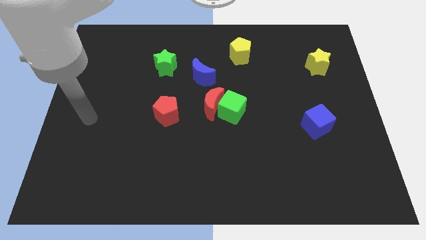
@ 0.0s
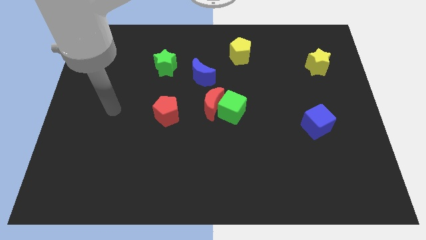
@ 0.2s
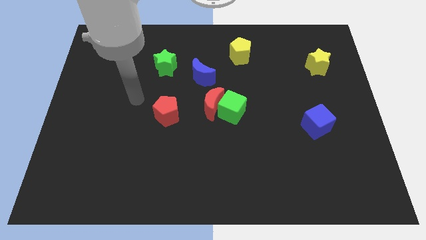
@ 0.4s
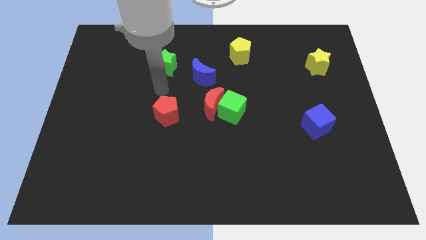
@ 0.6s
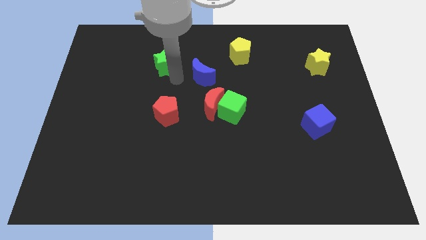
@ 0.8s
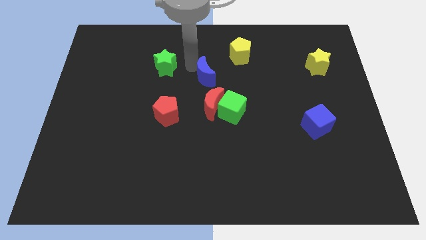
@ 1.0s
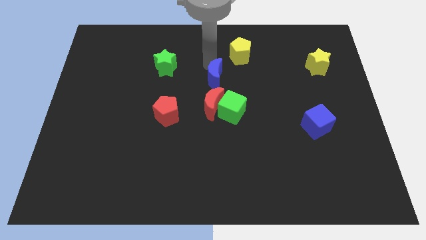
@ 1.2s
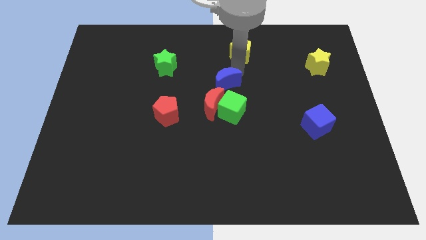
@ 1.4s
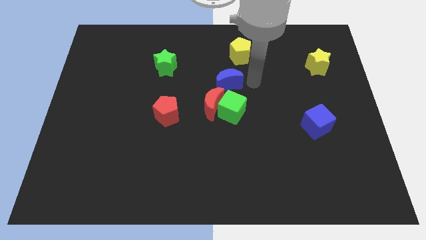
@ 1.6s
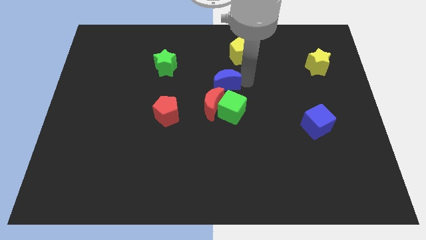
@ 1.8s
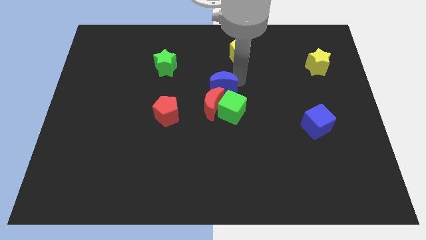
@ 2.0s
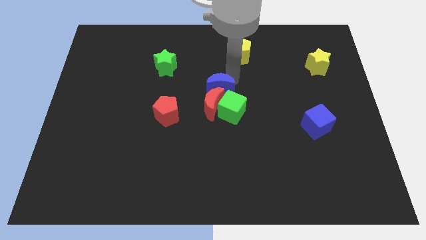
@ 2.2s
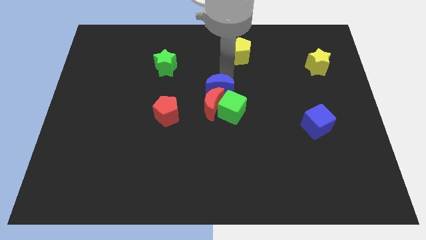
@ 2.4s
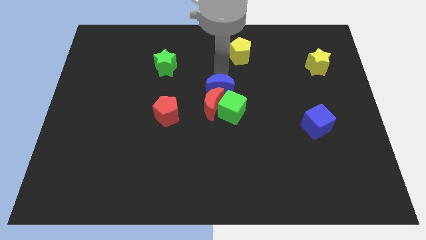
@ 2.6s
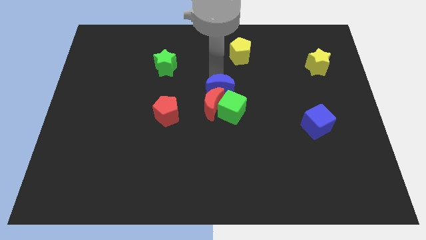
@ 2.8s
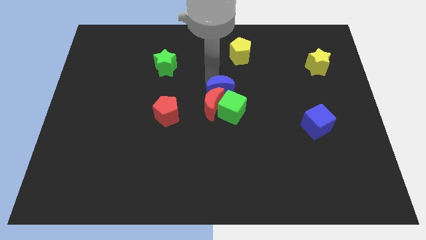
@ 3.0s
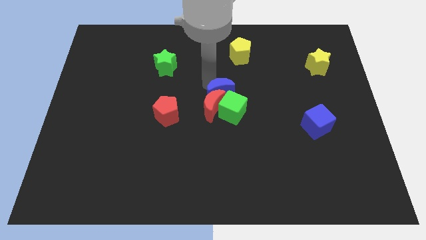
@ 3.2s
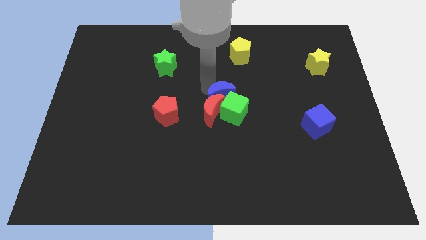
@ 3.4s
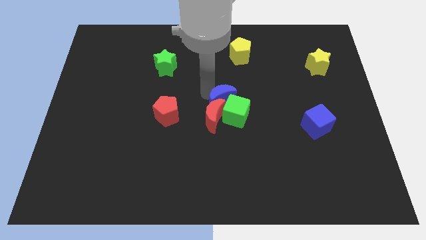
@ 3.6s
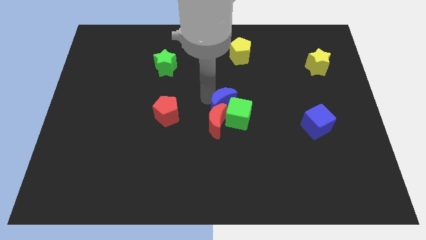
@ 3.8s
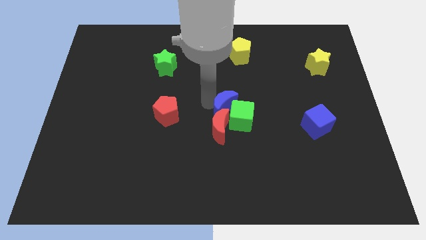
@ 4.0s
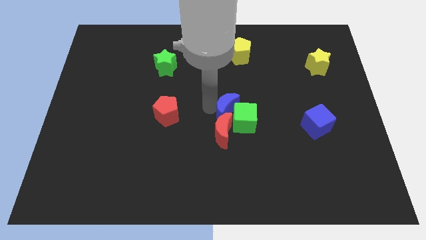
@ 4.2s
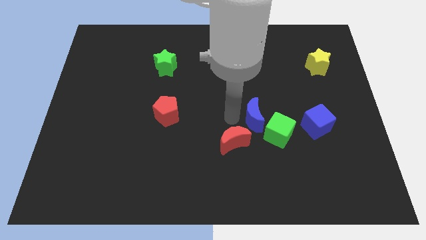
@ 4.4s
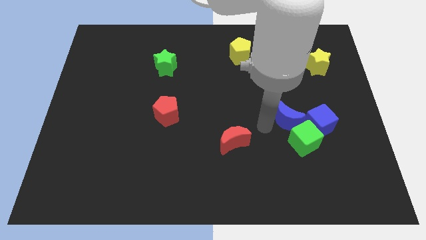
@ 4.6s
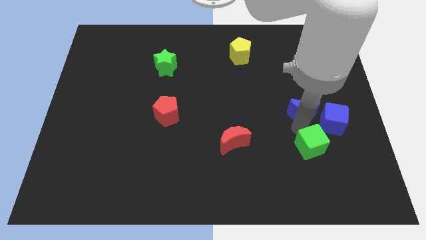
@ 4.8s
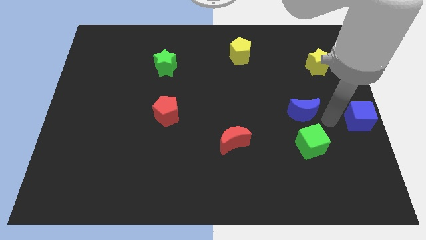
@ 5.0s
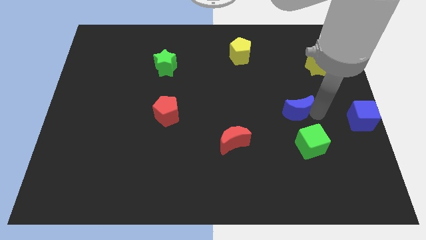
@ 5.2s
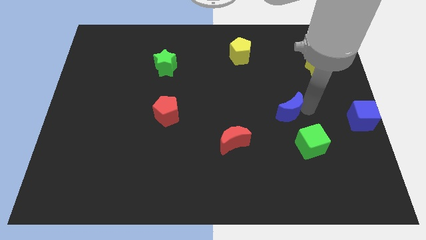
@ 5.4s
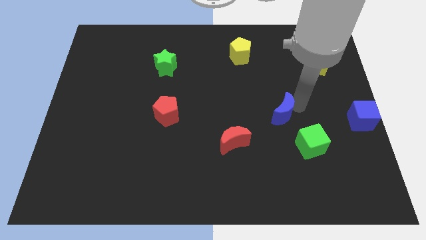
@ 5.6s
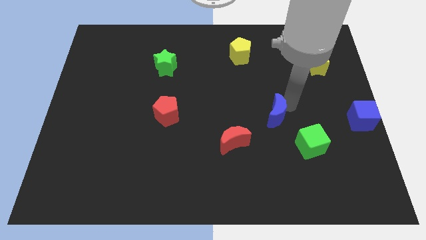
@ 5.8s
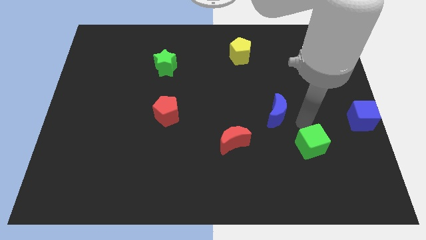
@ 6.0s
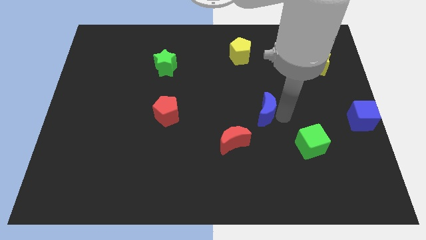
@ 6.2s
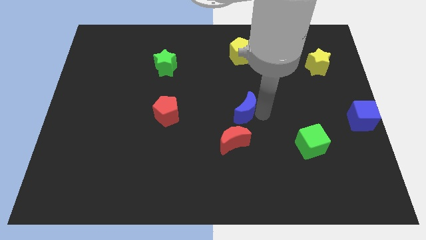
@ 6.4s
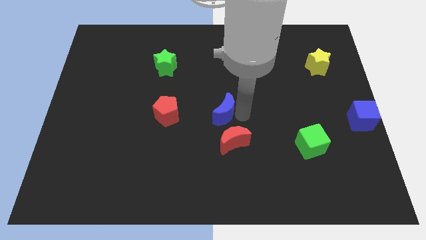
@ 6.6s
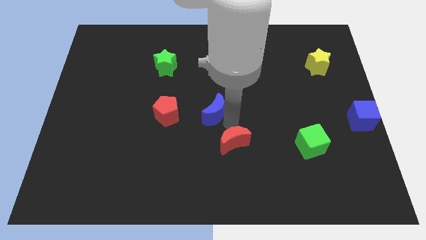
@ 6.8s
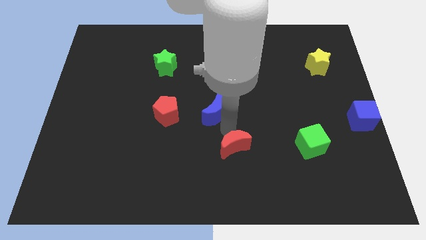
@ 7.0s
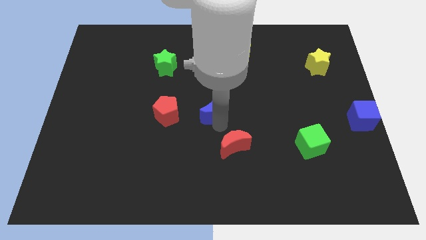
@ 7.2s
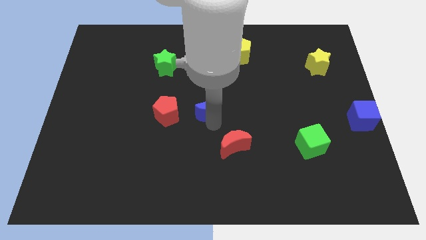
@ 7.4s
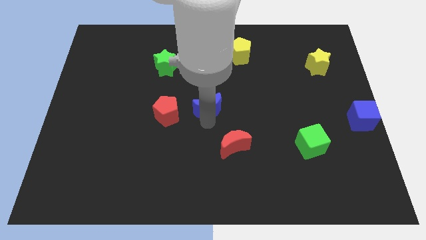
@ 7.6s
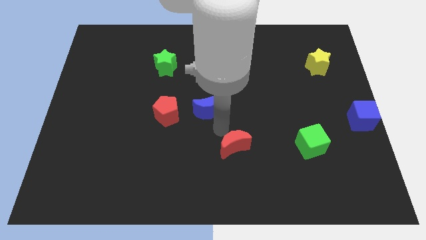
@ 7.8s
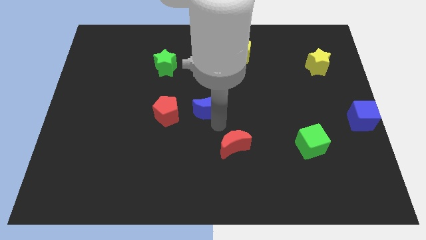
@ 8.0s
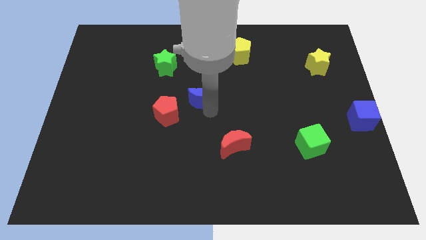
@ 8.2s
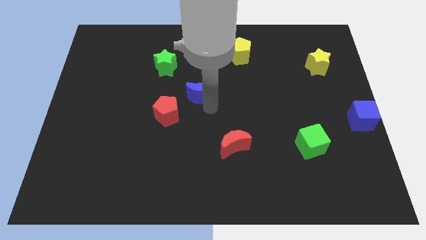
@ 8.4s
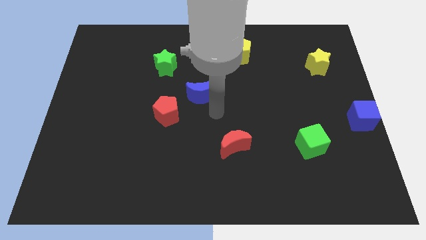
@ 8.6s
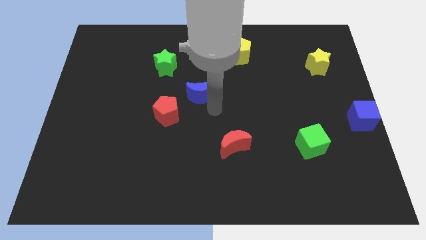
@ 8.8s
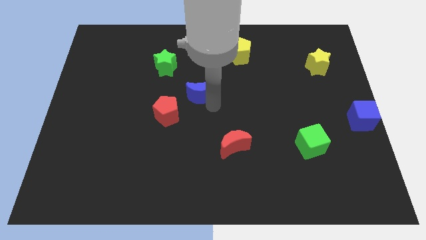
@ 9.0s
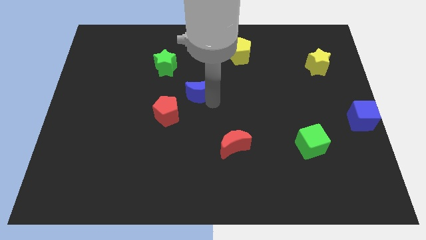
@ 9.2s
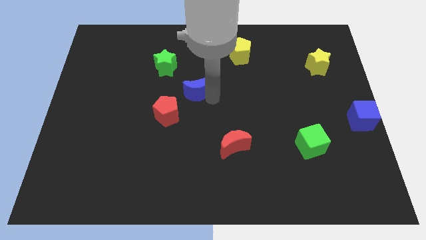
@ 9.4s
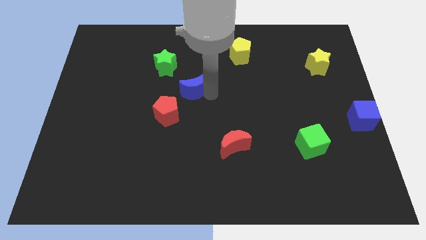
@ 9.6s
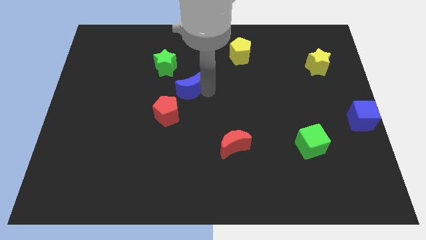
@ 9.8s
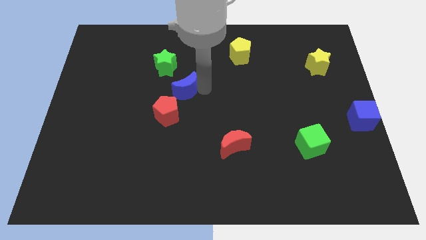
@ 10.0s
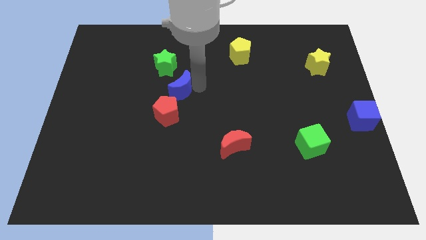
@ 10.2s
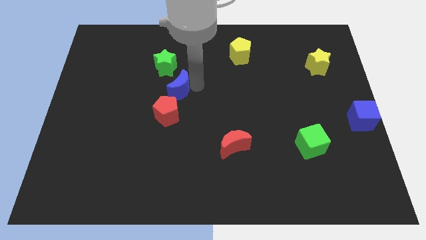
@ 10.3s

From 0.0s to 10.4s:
slightly move the blue moon downwards and then left

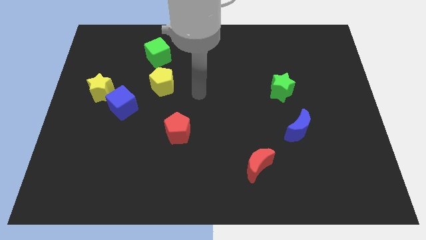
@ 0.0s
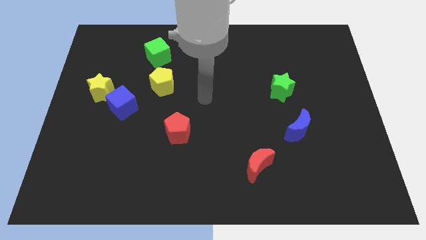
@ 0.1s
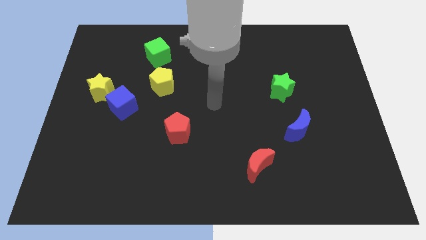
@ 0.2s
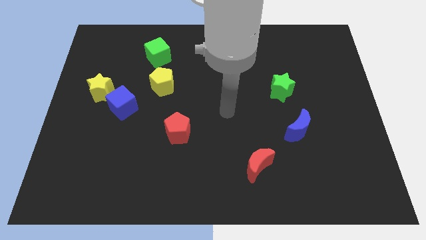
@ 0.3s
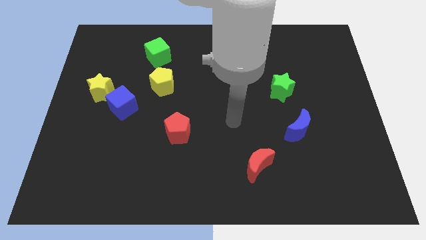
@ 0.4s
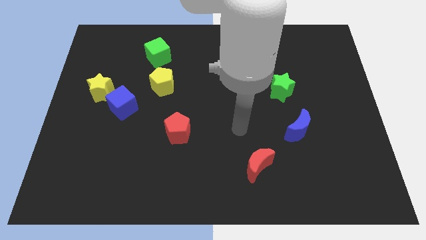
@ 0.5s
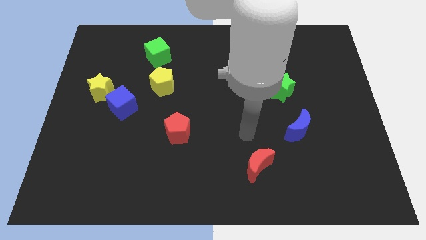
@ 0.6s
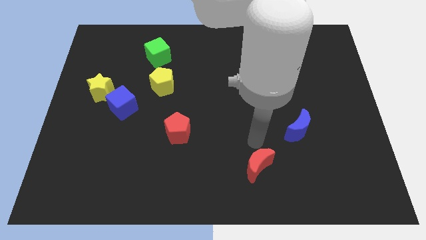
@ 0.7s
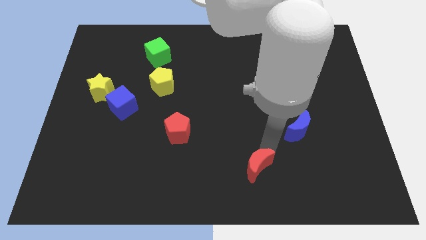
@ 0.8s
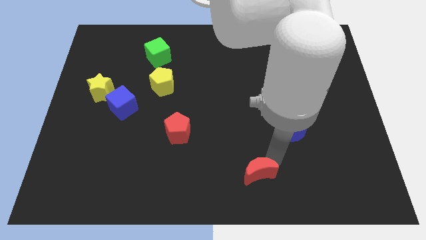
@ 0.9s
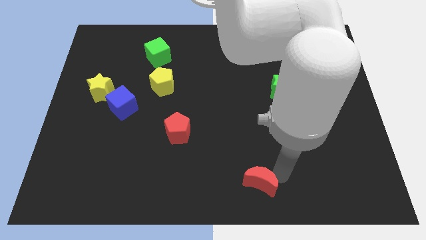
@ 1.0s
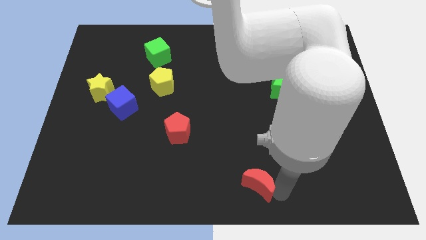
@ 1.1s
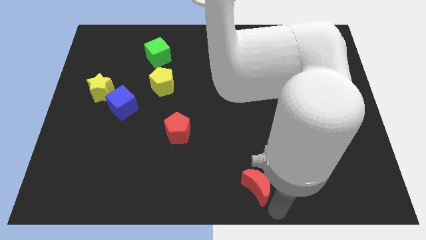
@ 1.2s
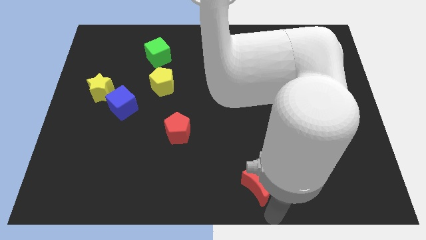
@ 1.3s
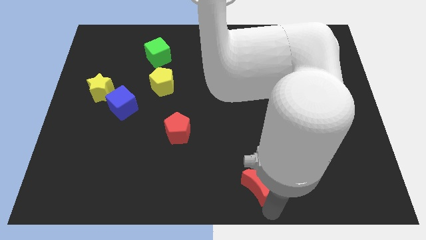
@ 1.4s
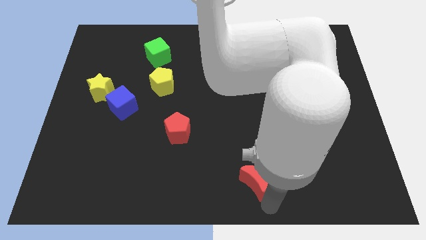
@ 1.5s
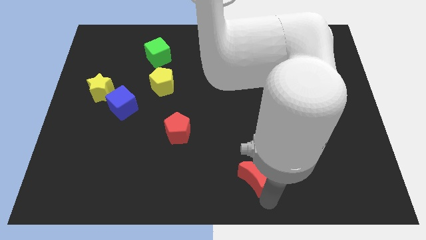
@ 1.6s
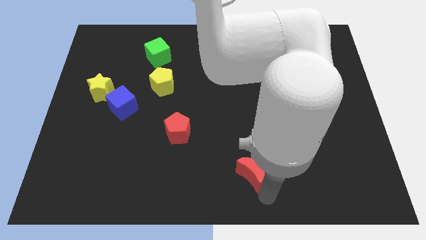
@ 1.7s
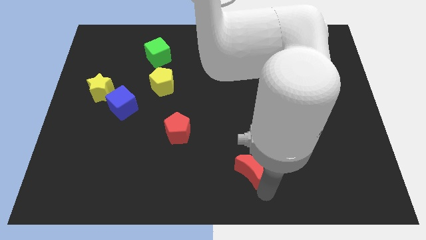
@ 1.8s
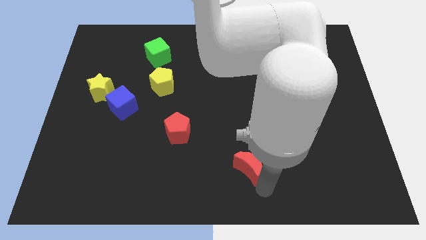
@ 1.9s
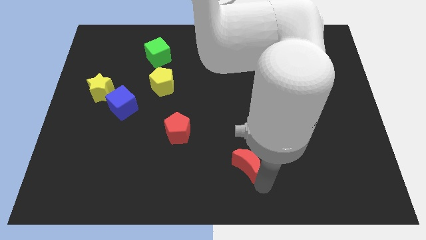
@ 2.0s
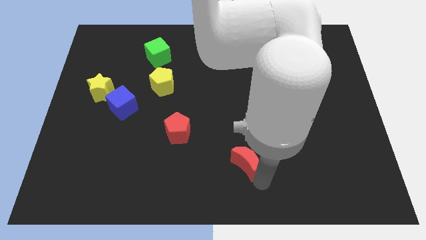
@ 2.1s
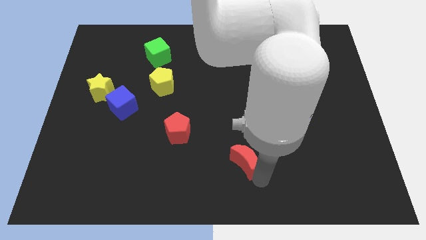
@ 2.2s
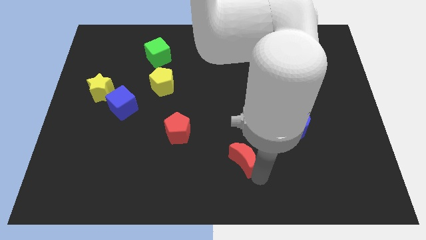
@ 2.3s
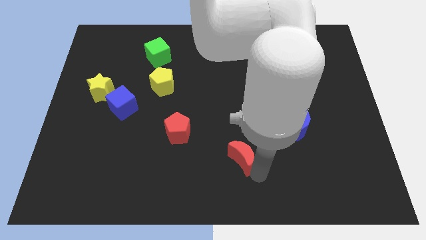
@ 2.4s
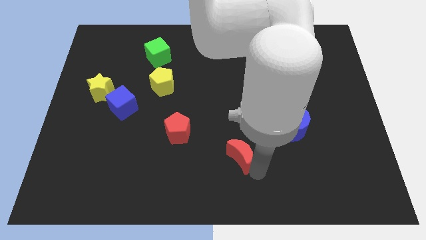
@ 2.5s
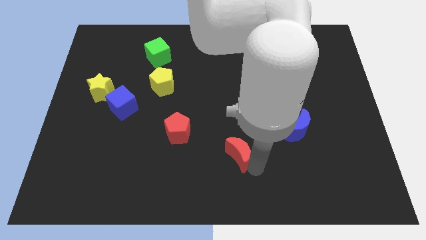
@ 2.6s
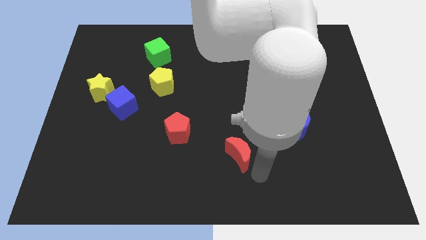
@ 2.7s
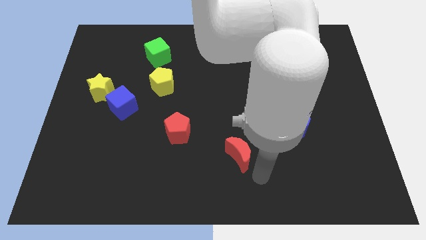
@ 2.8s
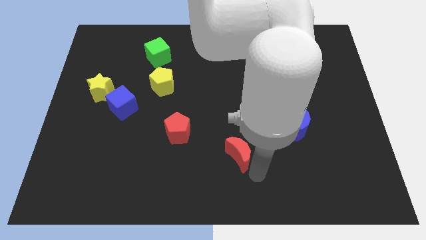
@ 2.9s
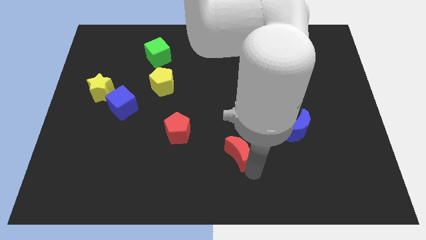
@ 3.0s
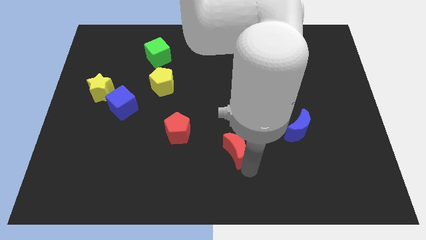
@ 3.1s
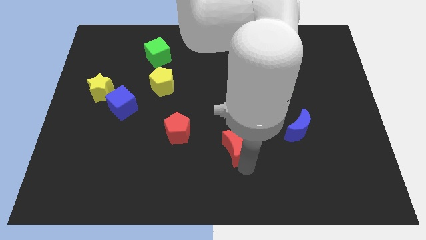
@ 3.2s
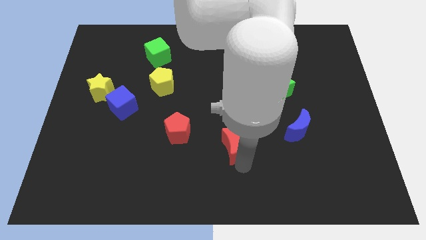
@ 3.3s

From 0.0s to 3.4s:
slightly move the red moon diagonally up and to the left
